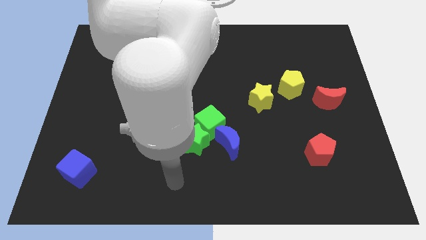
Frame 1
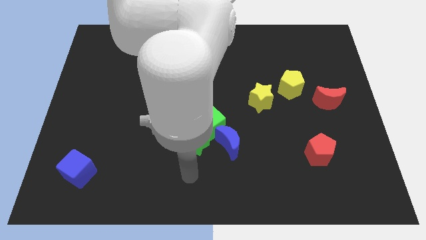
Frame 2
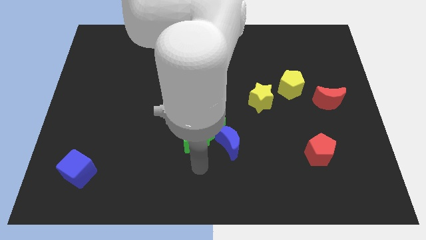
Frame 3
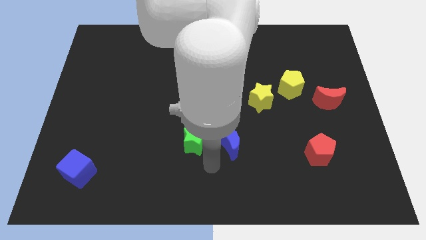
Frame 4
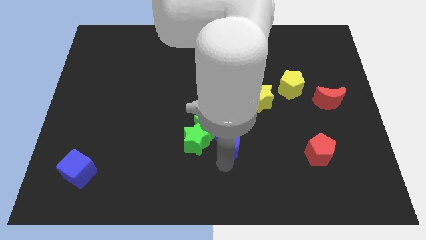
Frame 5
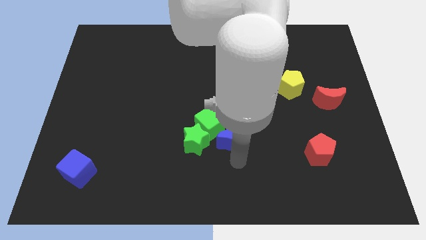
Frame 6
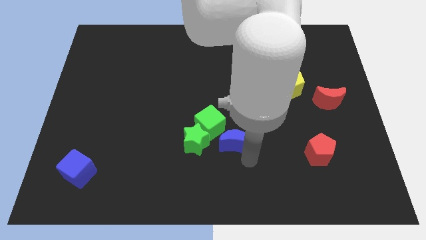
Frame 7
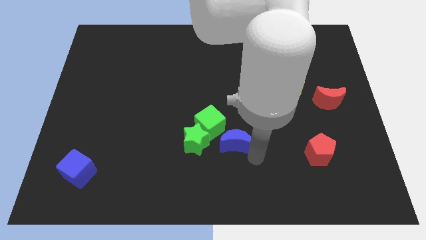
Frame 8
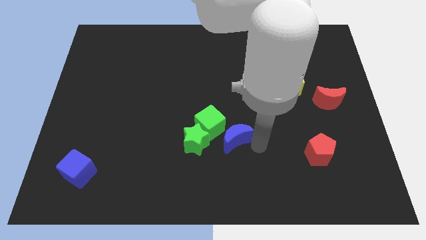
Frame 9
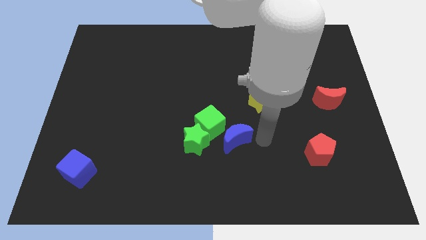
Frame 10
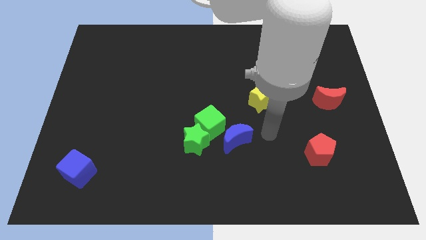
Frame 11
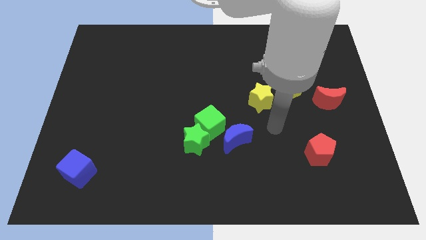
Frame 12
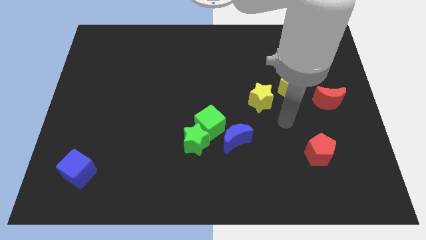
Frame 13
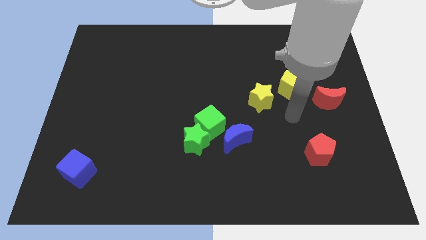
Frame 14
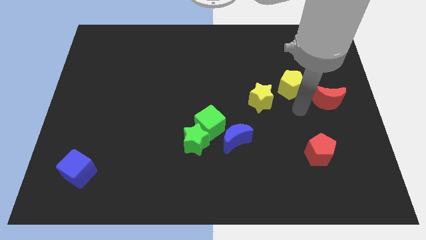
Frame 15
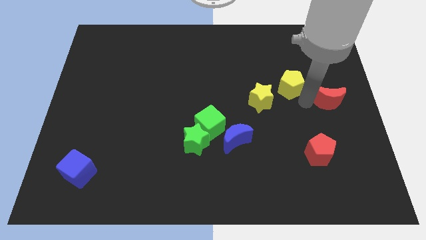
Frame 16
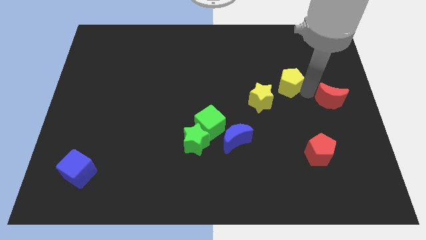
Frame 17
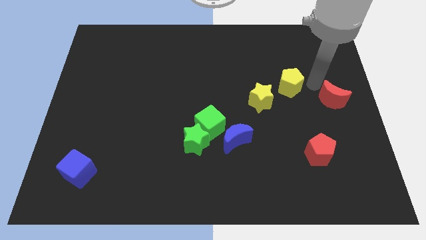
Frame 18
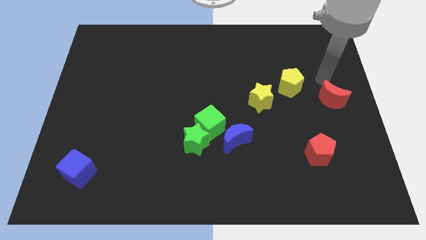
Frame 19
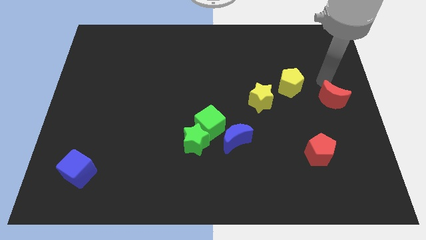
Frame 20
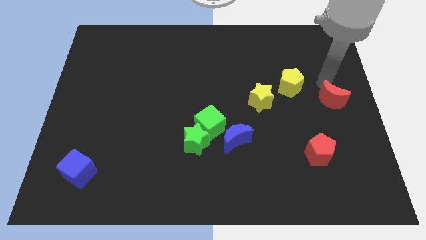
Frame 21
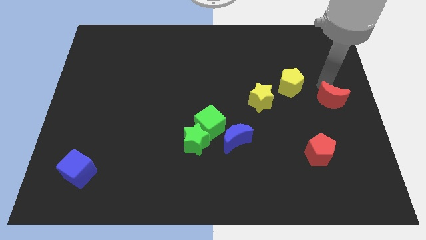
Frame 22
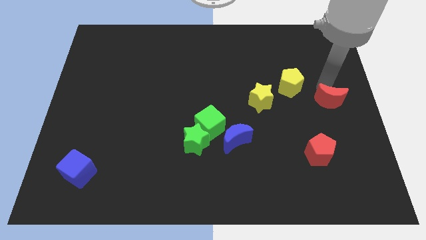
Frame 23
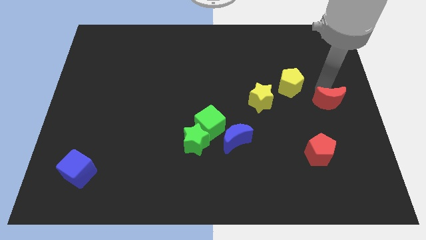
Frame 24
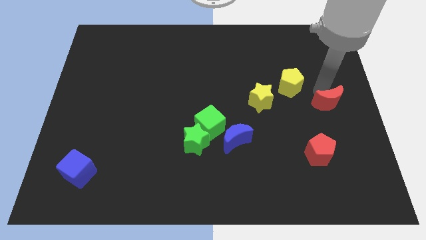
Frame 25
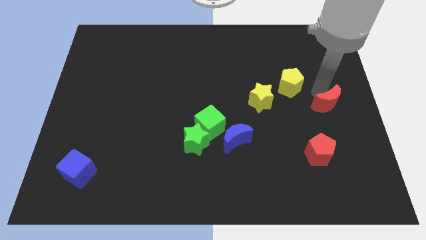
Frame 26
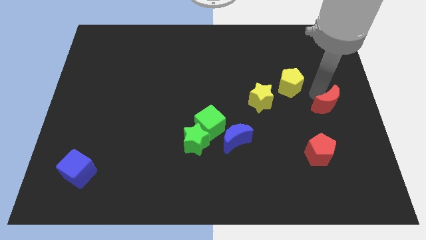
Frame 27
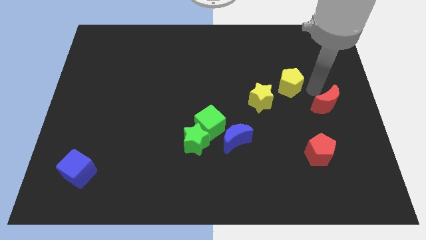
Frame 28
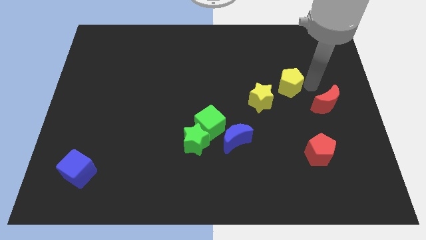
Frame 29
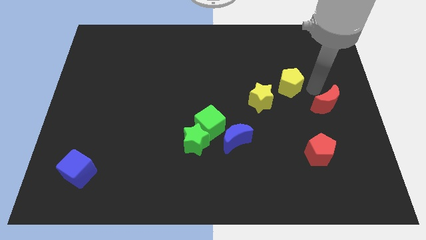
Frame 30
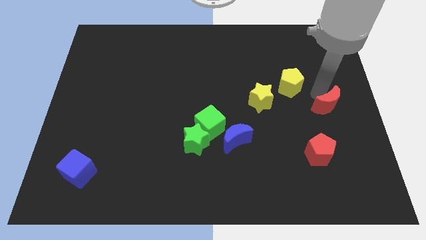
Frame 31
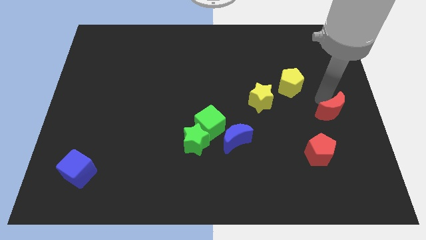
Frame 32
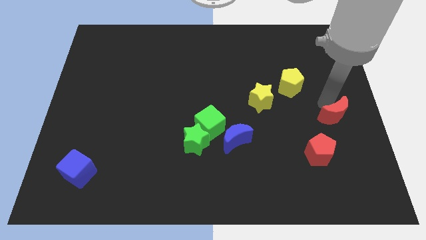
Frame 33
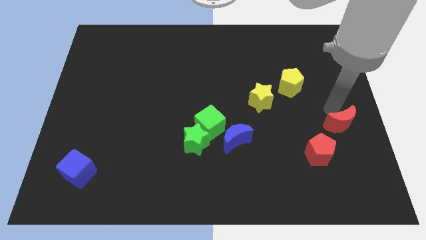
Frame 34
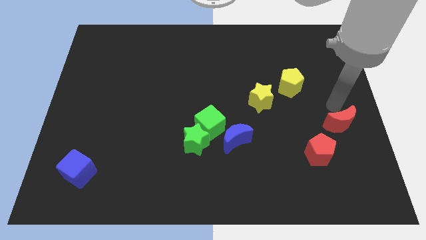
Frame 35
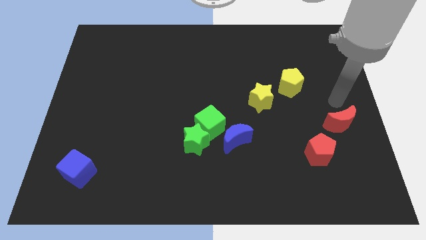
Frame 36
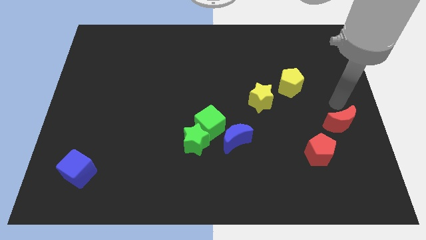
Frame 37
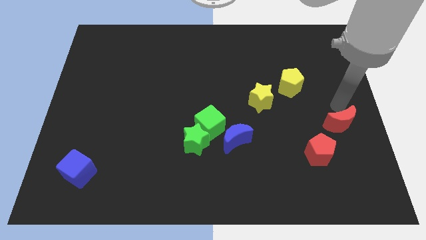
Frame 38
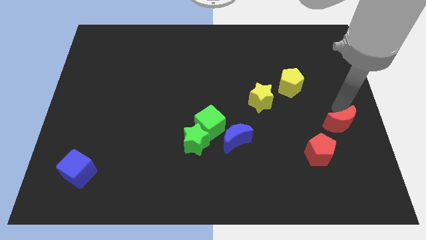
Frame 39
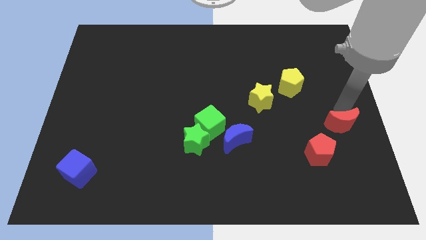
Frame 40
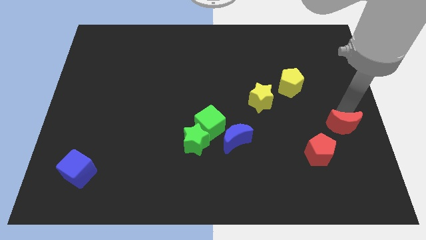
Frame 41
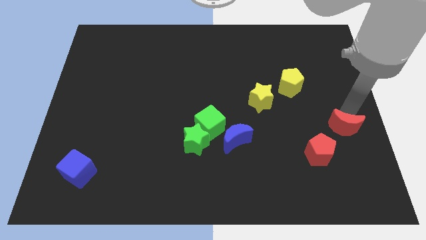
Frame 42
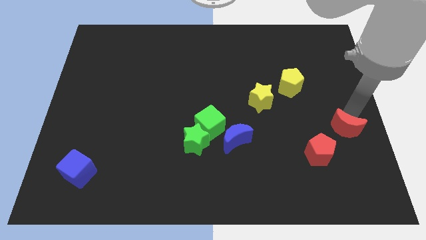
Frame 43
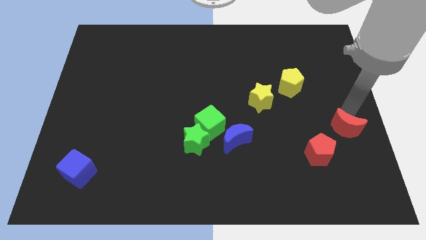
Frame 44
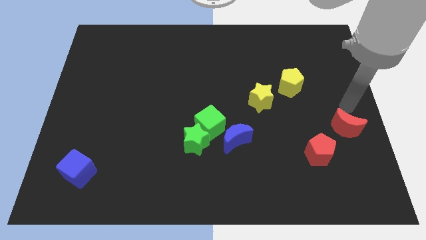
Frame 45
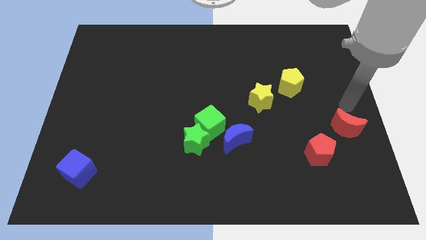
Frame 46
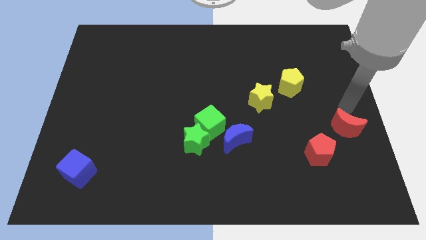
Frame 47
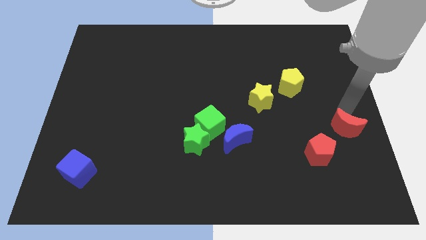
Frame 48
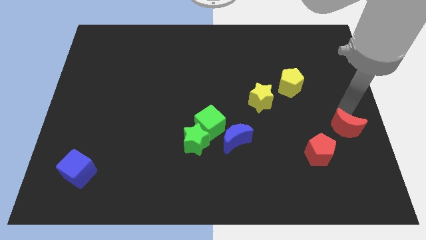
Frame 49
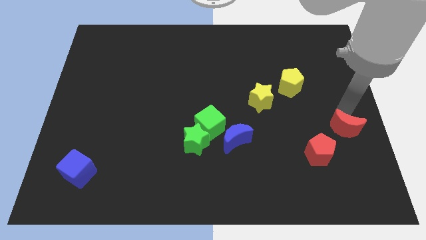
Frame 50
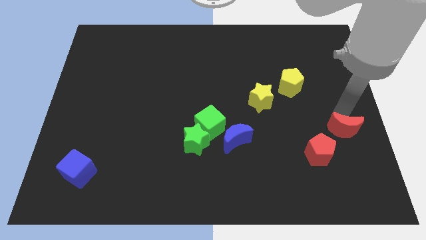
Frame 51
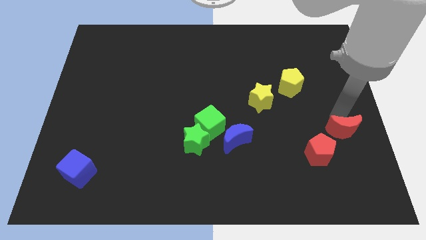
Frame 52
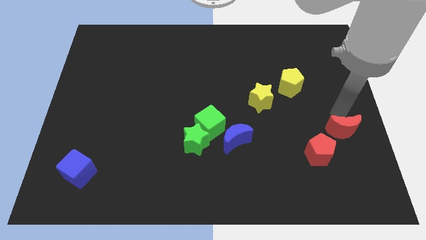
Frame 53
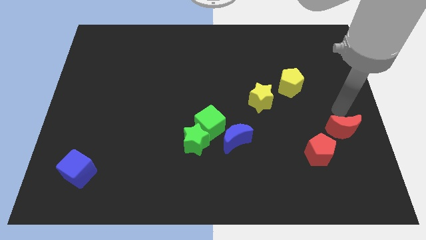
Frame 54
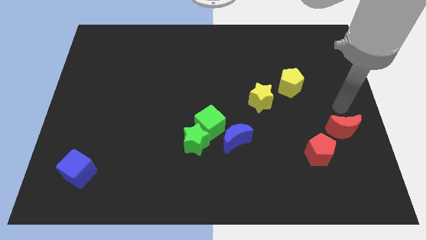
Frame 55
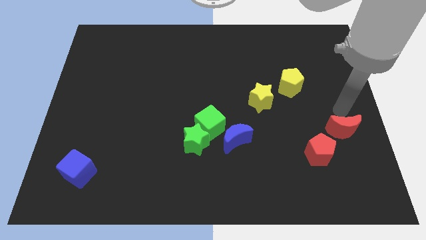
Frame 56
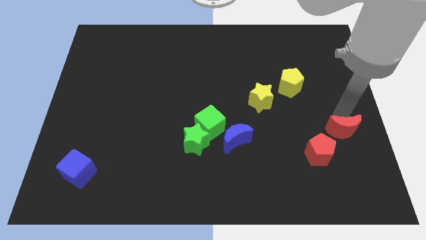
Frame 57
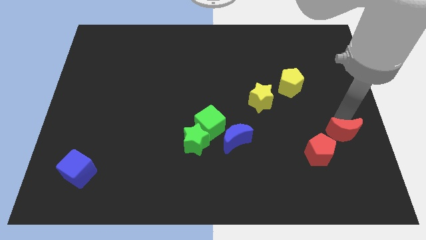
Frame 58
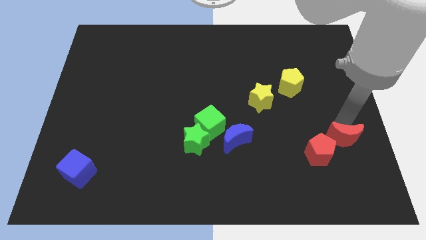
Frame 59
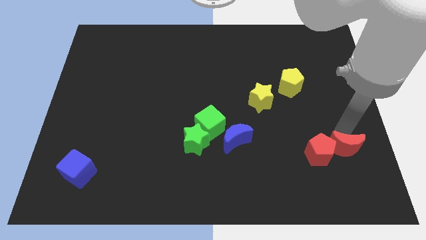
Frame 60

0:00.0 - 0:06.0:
put the red moon to the bottom right of the red pentagon

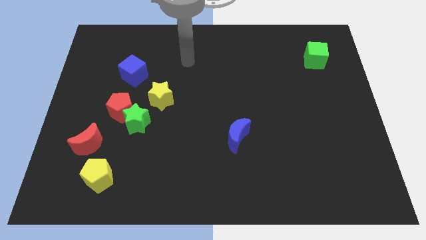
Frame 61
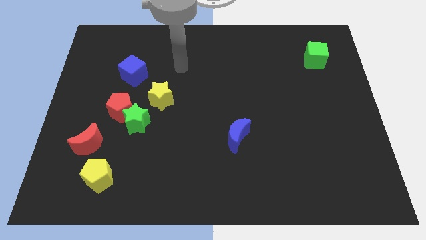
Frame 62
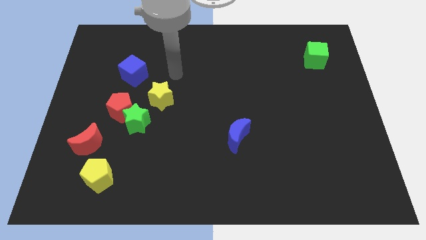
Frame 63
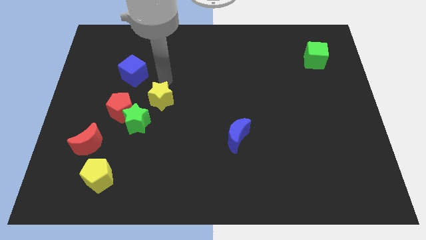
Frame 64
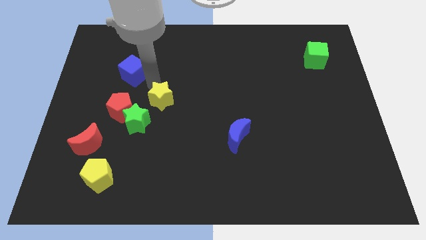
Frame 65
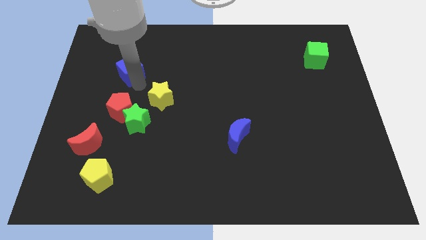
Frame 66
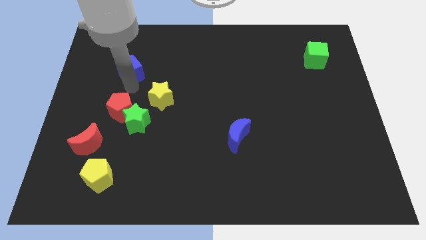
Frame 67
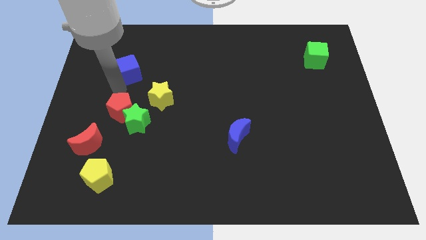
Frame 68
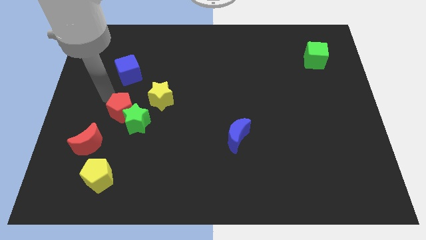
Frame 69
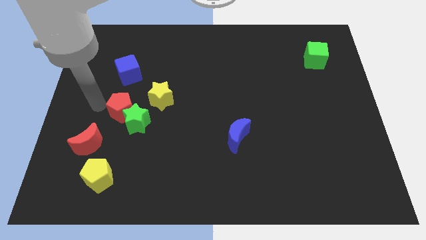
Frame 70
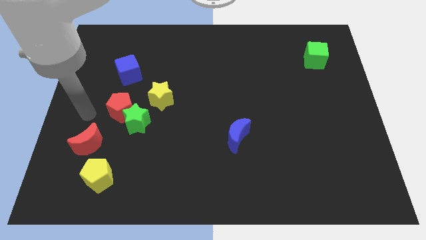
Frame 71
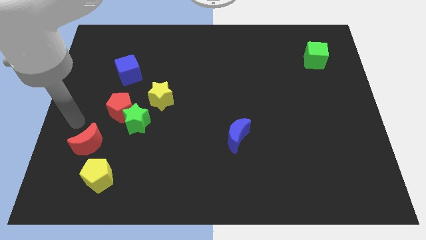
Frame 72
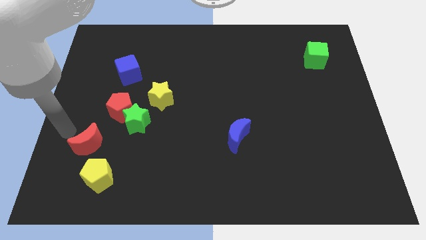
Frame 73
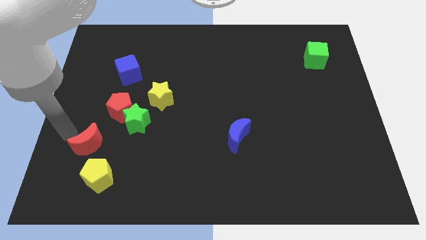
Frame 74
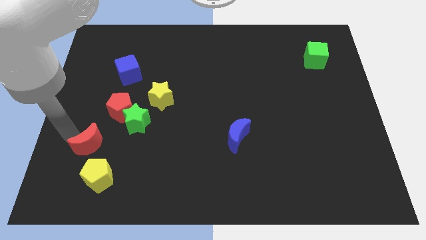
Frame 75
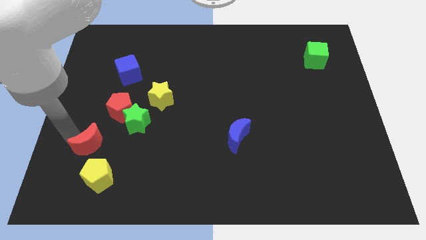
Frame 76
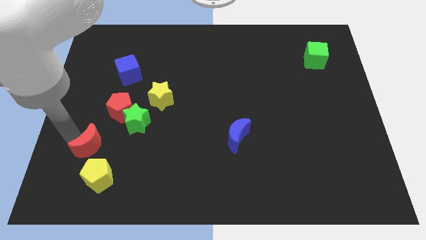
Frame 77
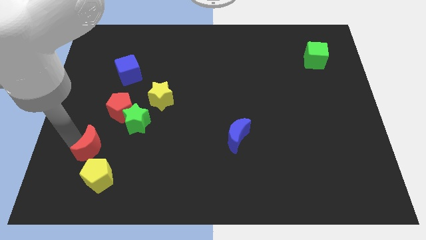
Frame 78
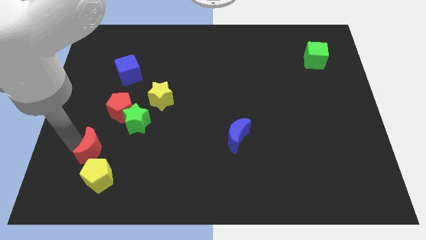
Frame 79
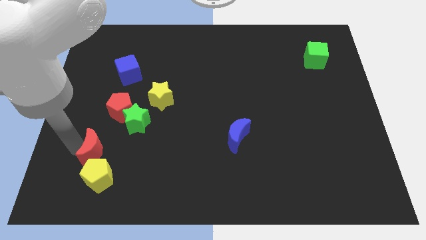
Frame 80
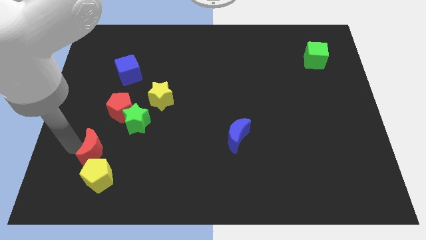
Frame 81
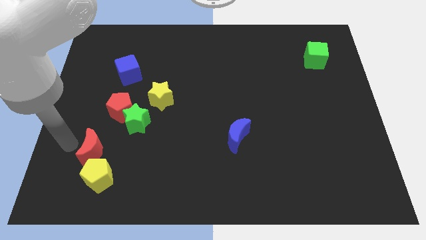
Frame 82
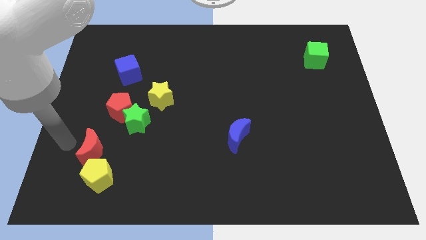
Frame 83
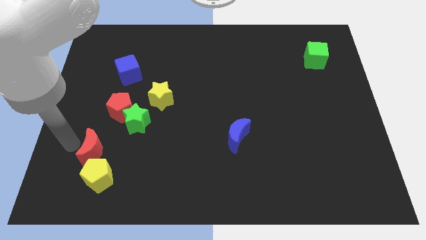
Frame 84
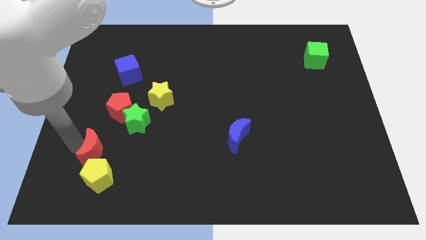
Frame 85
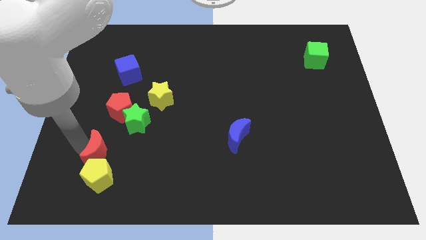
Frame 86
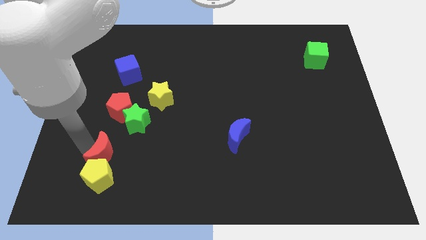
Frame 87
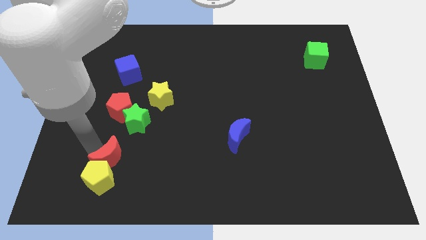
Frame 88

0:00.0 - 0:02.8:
move the red moon below the green star
